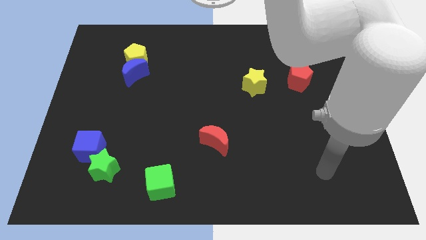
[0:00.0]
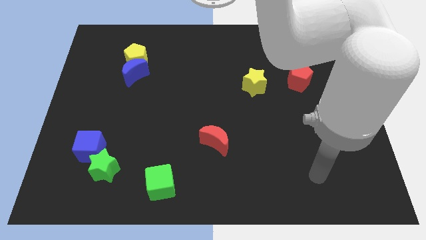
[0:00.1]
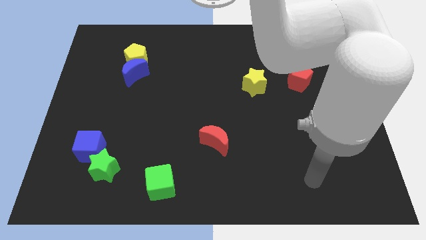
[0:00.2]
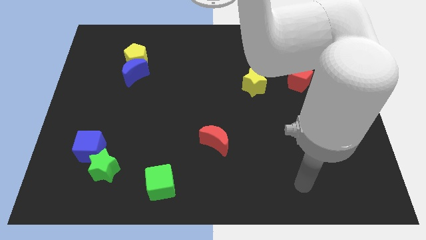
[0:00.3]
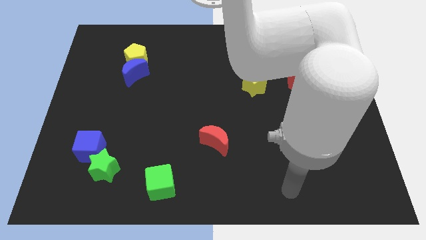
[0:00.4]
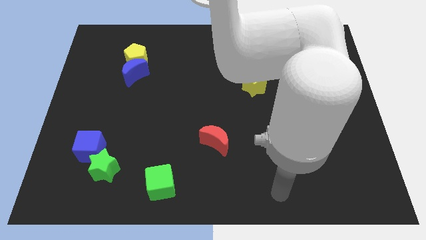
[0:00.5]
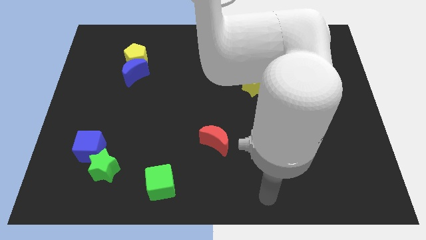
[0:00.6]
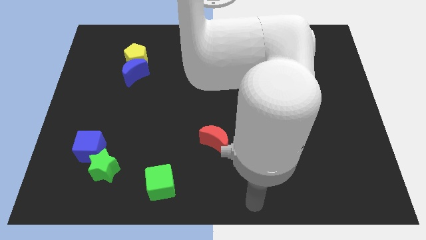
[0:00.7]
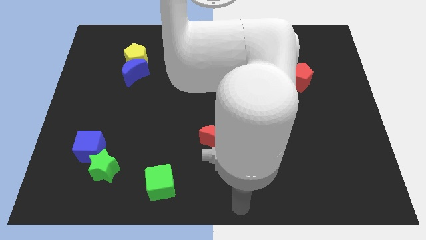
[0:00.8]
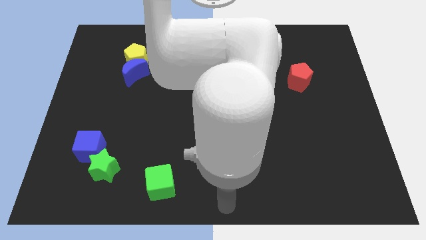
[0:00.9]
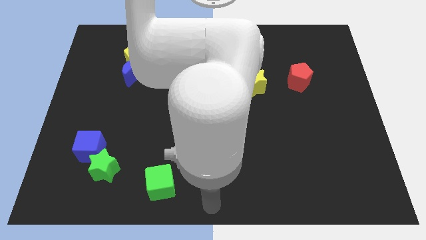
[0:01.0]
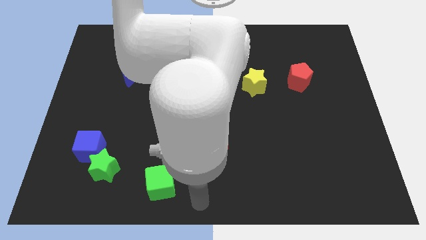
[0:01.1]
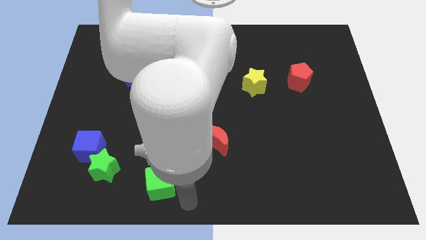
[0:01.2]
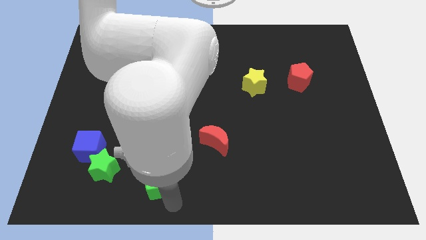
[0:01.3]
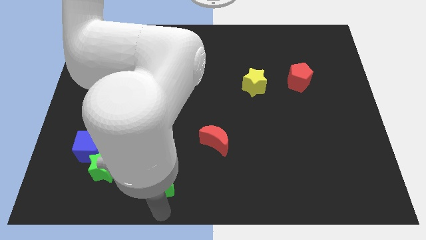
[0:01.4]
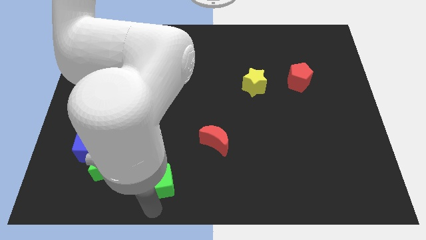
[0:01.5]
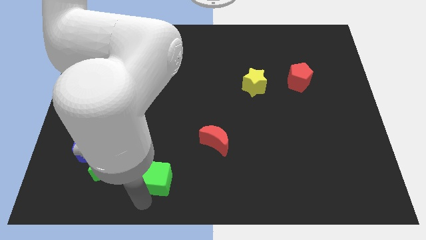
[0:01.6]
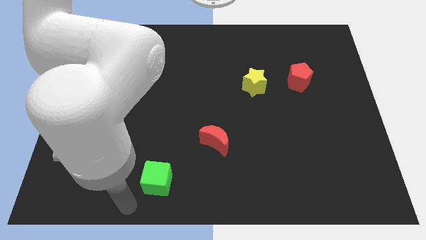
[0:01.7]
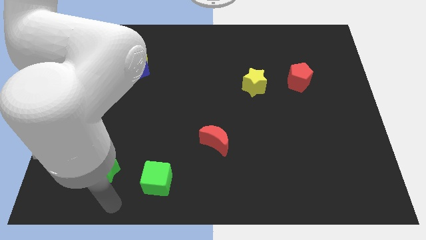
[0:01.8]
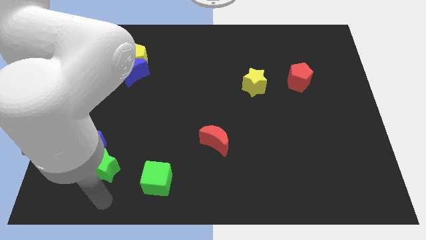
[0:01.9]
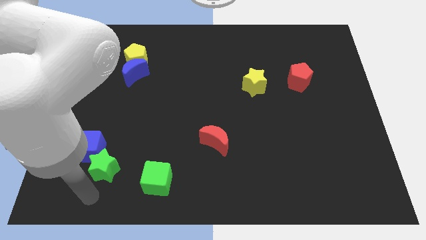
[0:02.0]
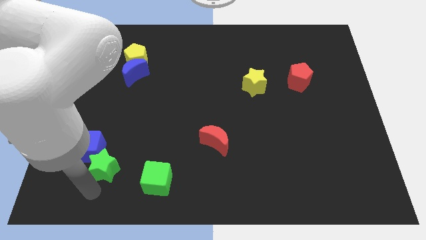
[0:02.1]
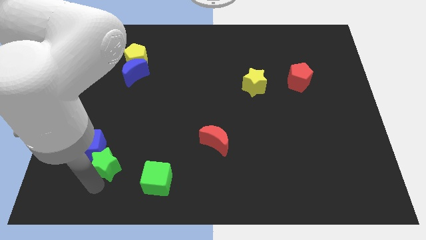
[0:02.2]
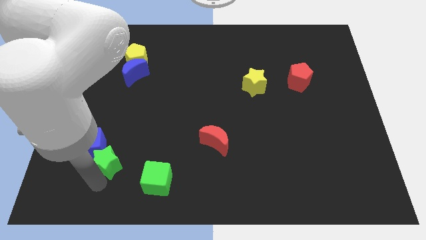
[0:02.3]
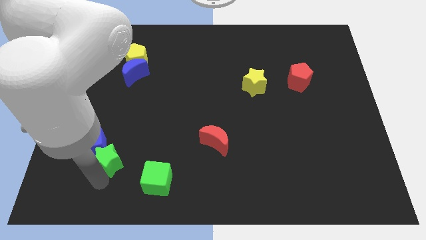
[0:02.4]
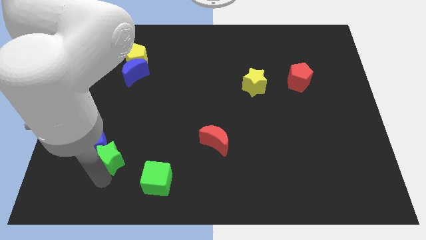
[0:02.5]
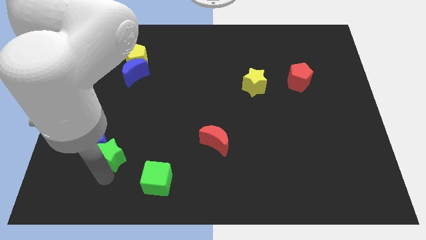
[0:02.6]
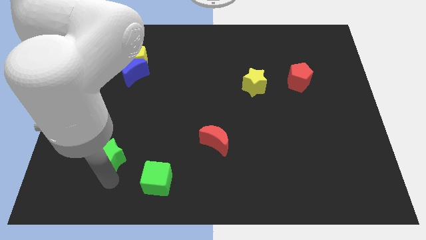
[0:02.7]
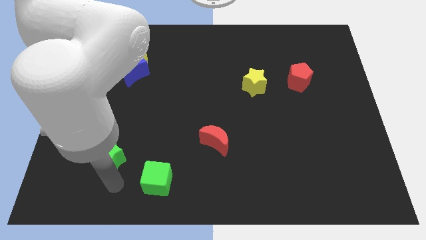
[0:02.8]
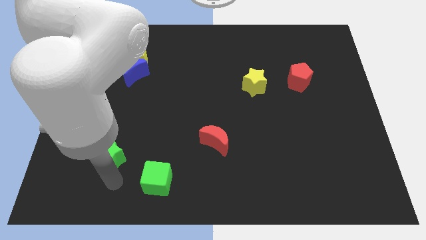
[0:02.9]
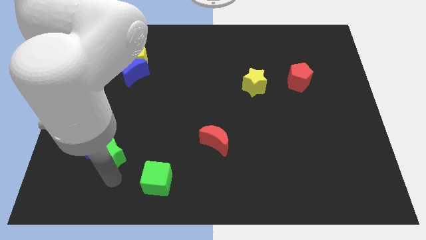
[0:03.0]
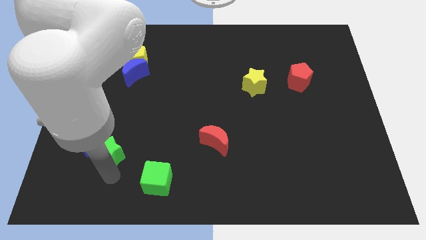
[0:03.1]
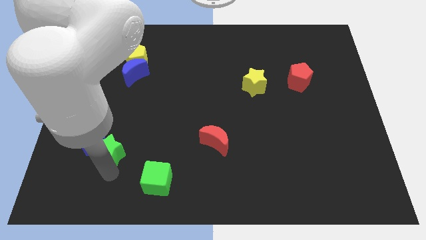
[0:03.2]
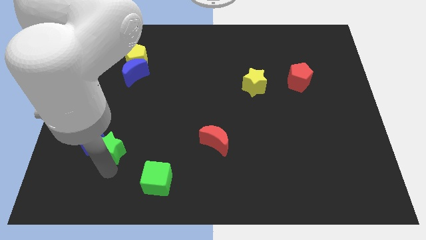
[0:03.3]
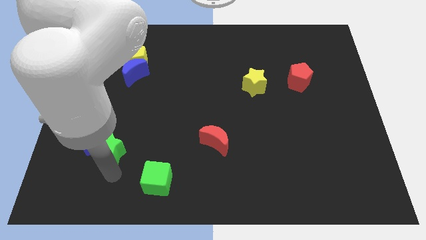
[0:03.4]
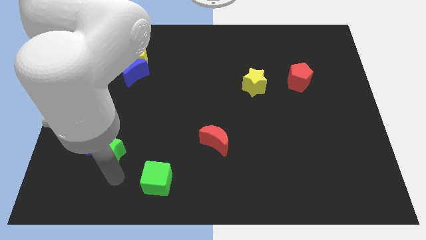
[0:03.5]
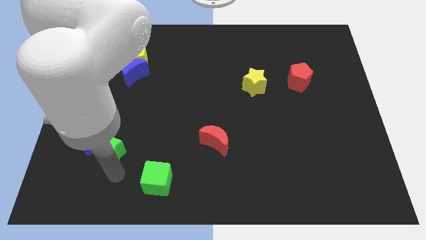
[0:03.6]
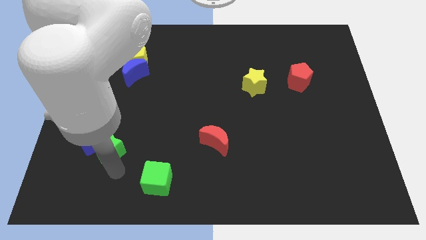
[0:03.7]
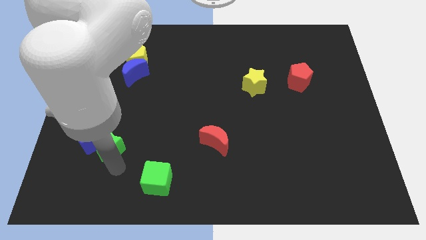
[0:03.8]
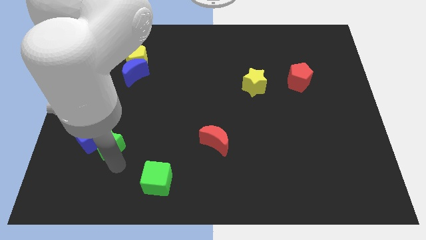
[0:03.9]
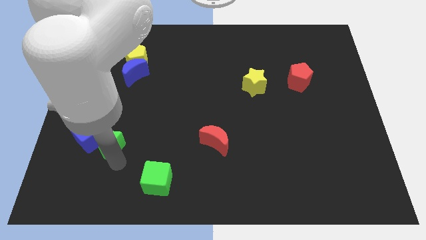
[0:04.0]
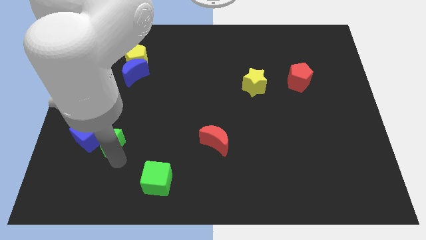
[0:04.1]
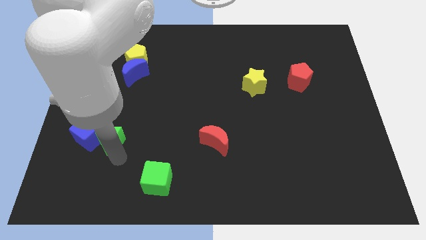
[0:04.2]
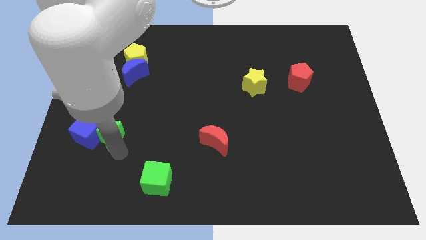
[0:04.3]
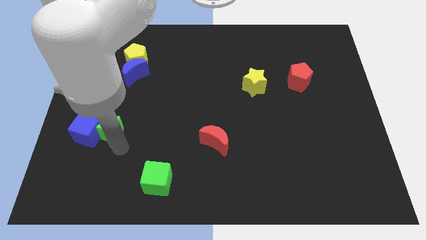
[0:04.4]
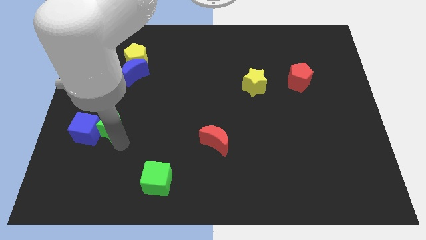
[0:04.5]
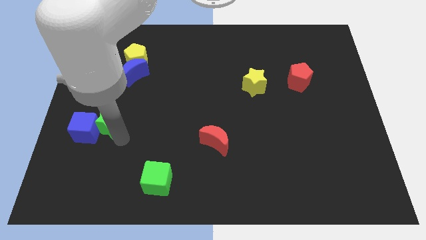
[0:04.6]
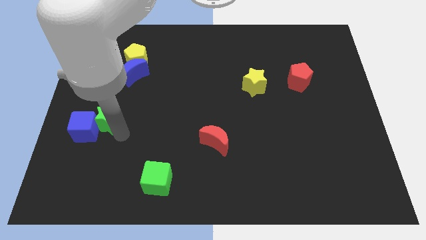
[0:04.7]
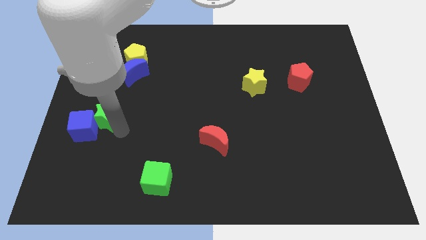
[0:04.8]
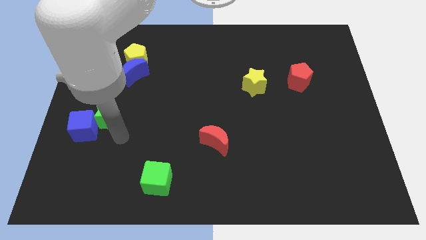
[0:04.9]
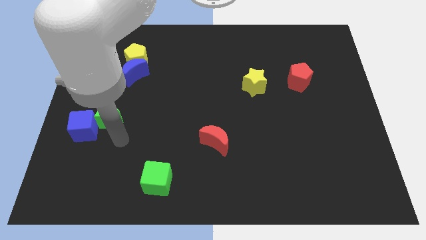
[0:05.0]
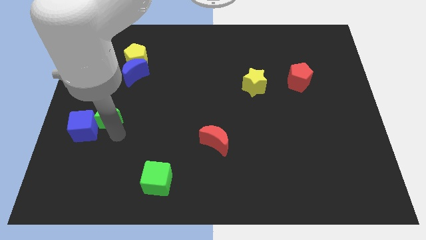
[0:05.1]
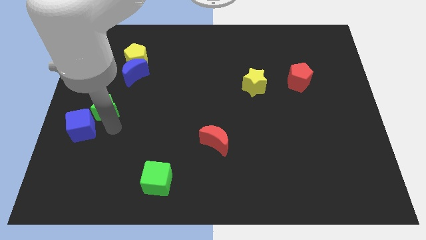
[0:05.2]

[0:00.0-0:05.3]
push the green star above the blue cube

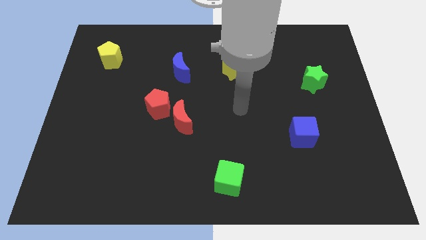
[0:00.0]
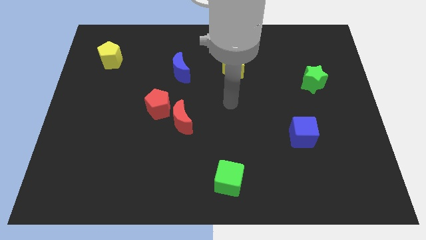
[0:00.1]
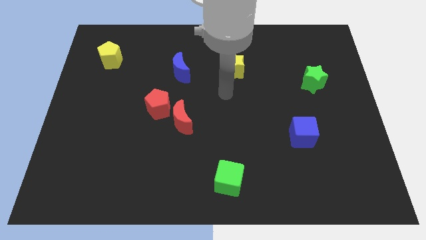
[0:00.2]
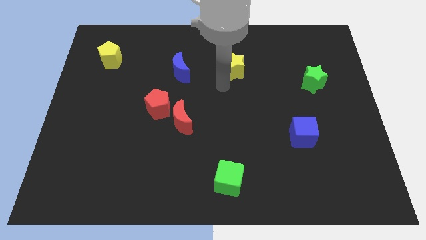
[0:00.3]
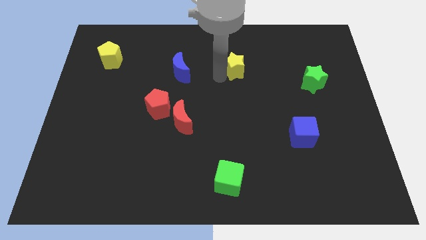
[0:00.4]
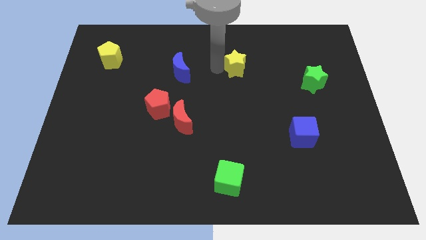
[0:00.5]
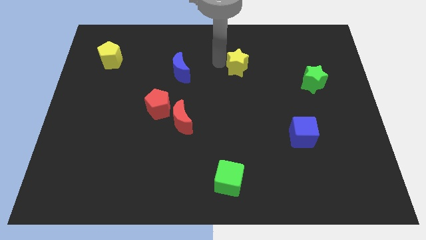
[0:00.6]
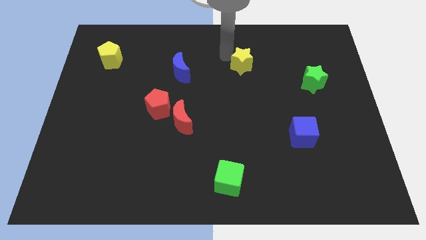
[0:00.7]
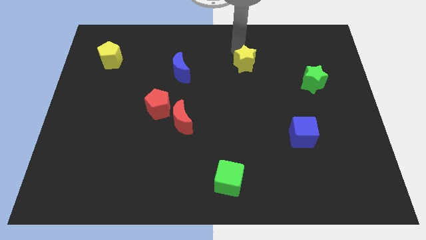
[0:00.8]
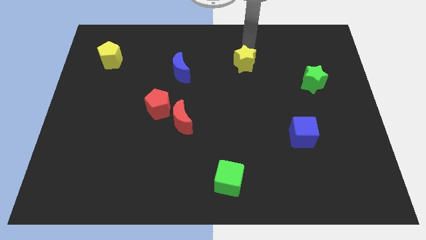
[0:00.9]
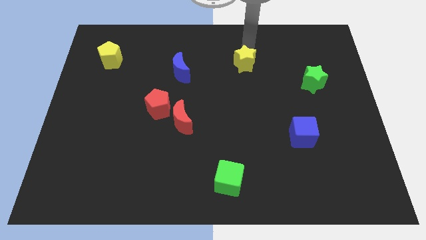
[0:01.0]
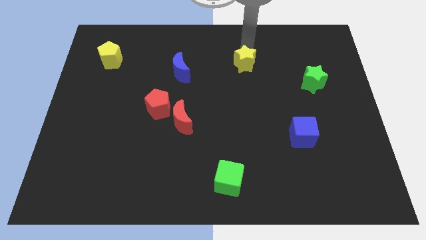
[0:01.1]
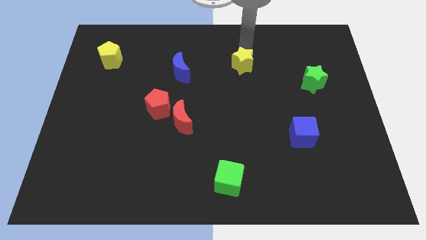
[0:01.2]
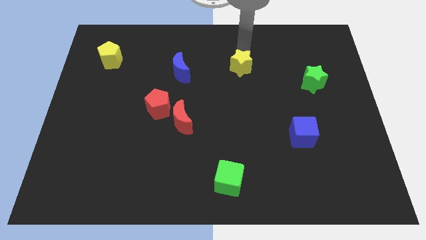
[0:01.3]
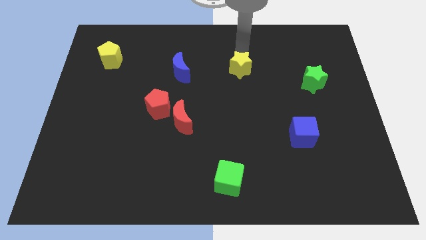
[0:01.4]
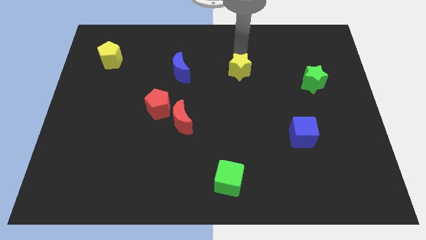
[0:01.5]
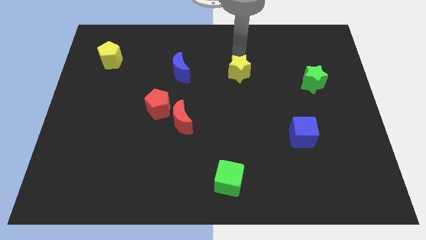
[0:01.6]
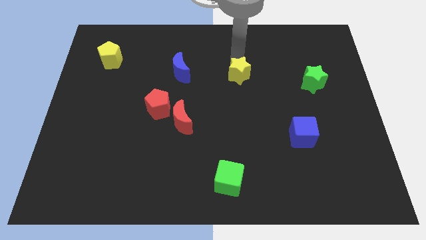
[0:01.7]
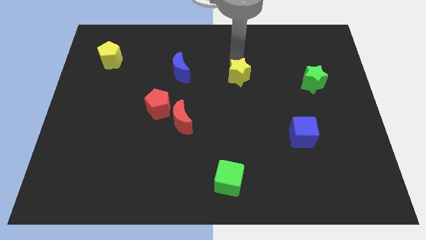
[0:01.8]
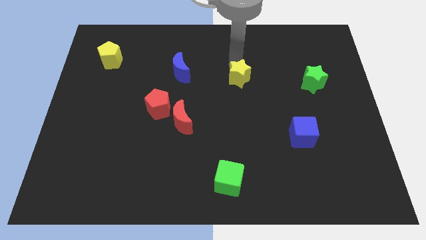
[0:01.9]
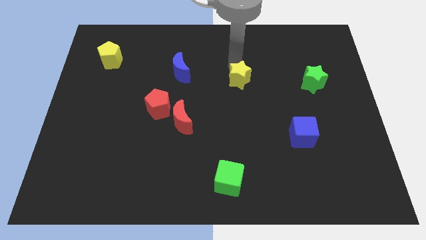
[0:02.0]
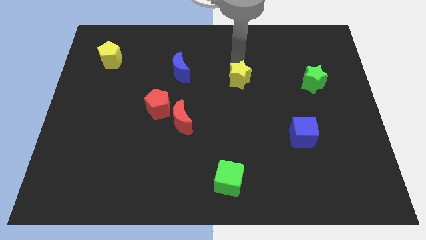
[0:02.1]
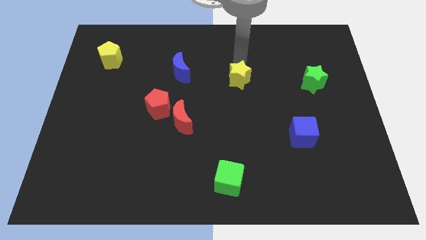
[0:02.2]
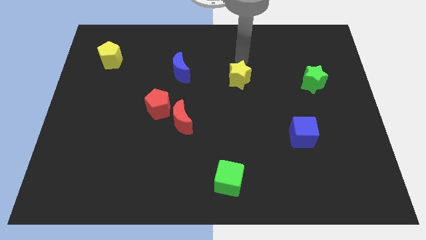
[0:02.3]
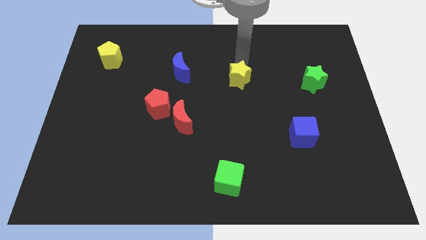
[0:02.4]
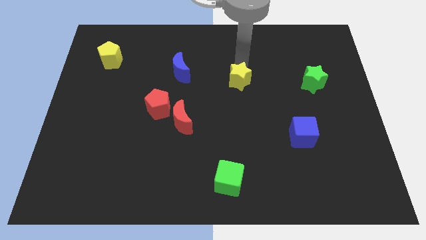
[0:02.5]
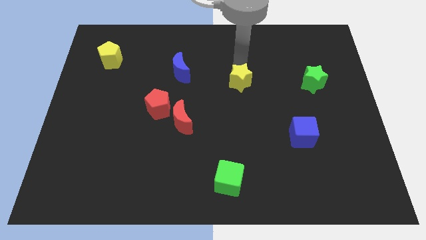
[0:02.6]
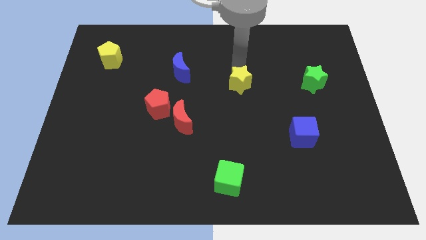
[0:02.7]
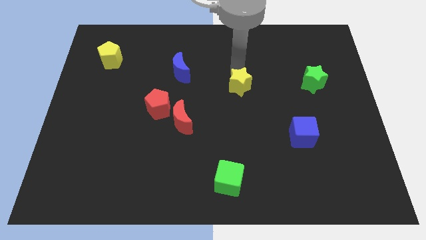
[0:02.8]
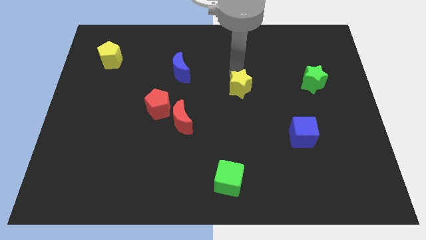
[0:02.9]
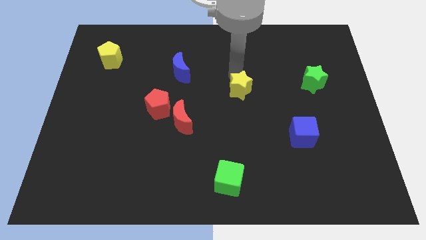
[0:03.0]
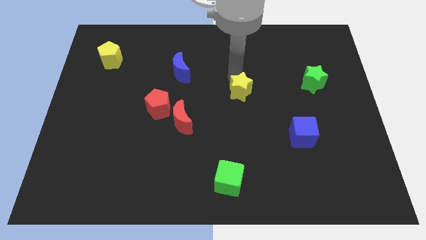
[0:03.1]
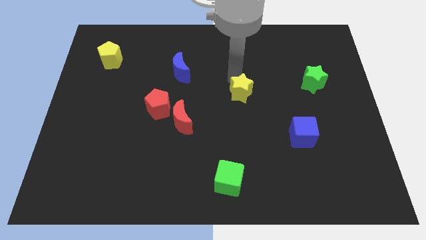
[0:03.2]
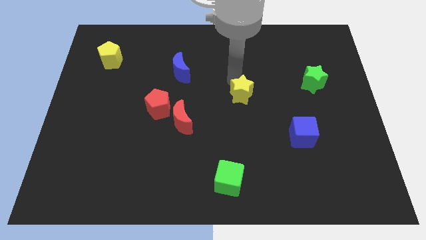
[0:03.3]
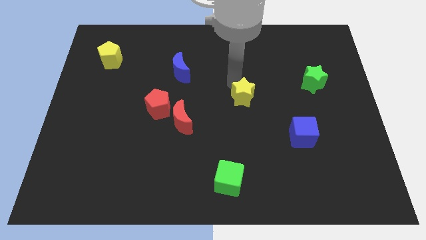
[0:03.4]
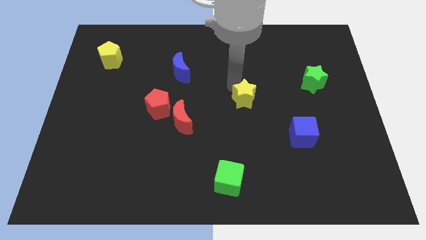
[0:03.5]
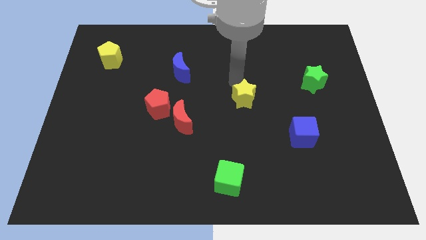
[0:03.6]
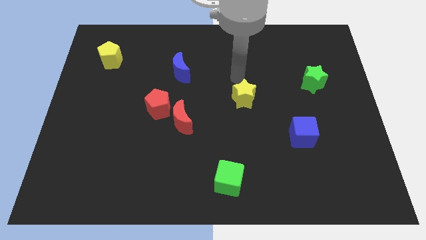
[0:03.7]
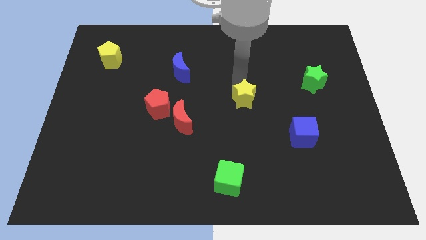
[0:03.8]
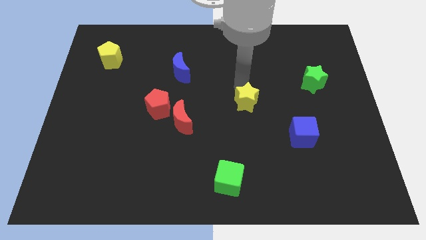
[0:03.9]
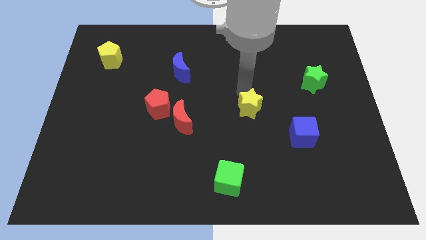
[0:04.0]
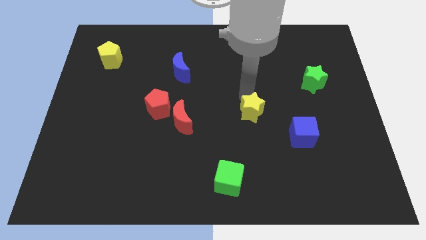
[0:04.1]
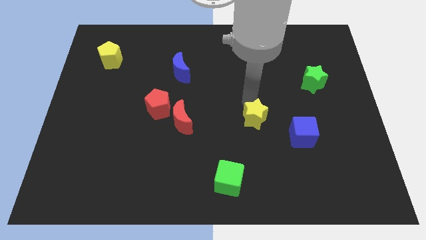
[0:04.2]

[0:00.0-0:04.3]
push the yellow star to the left side of the blue cube
